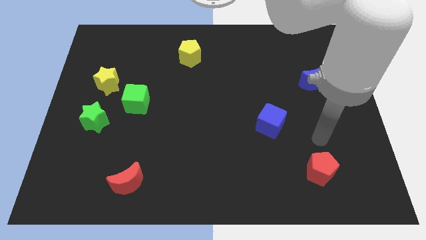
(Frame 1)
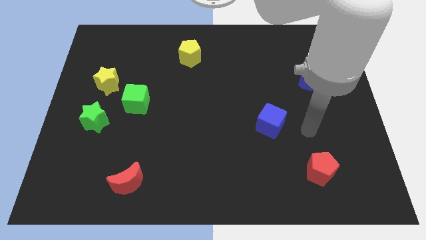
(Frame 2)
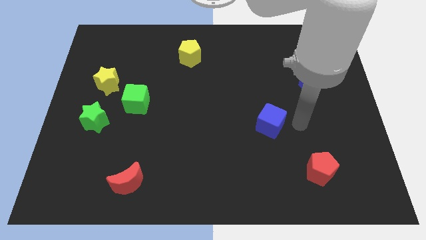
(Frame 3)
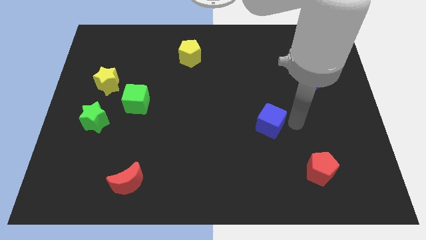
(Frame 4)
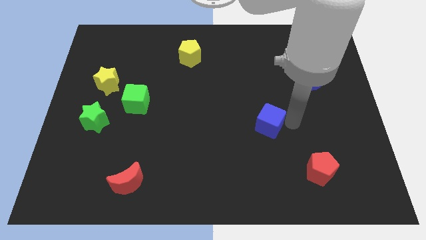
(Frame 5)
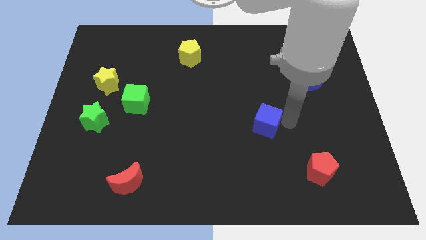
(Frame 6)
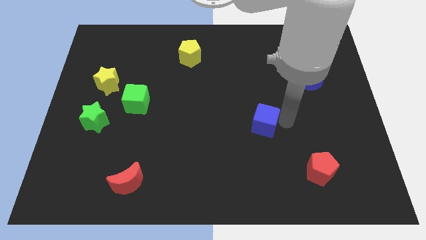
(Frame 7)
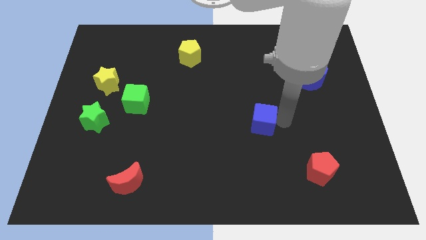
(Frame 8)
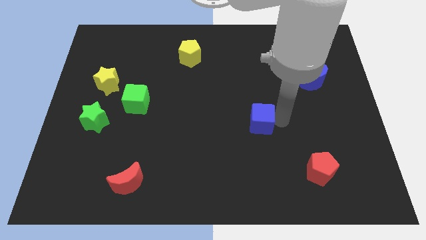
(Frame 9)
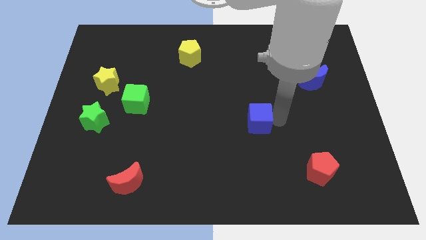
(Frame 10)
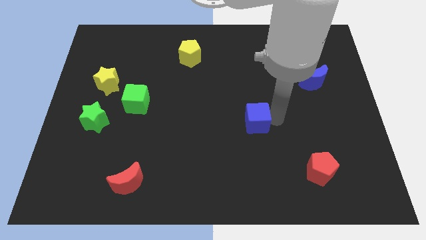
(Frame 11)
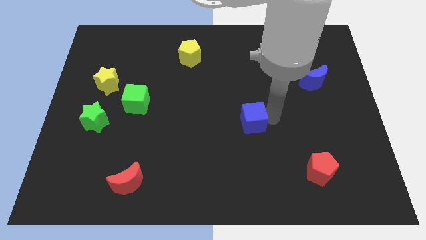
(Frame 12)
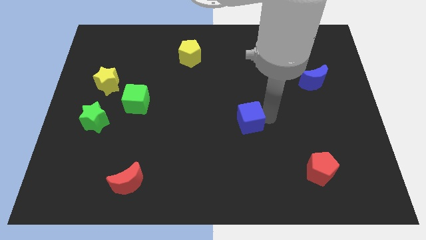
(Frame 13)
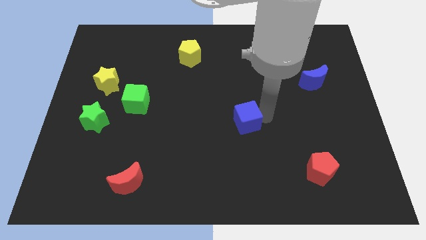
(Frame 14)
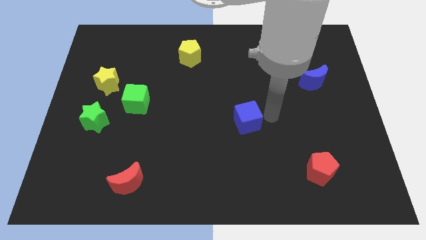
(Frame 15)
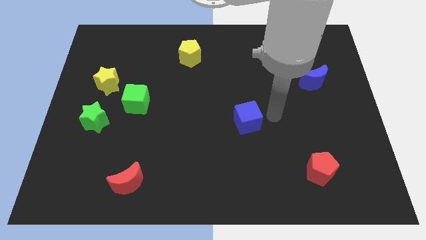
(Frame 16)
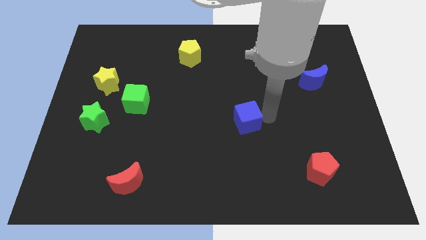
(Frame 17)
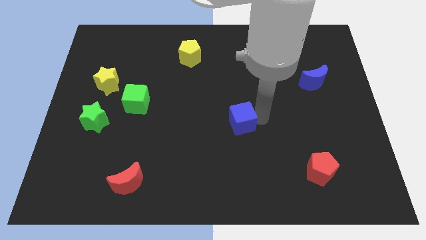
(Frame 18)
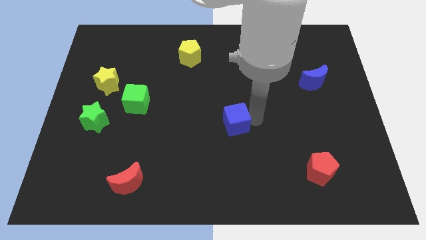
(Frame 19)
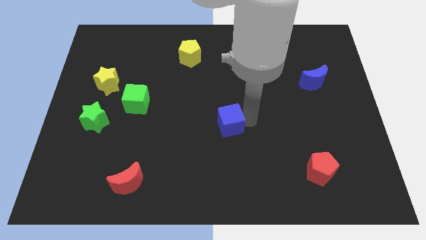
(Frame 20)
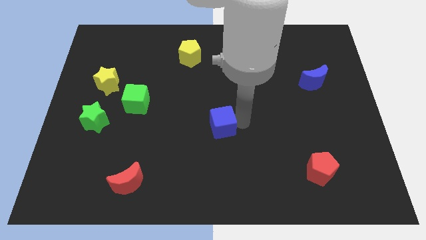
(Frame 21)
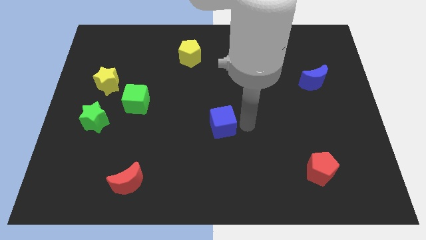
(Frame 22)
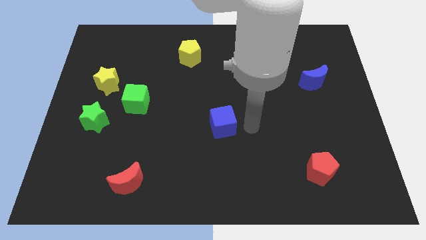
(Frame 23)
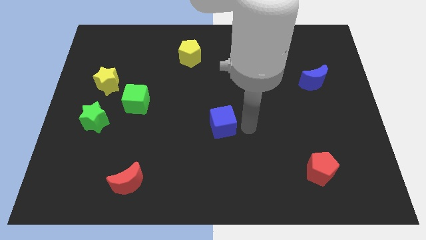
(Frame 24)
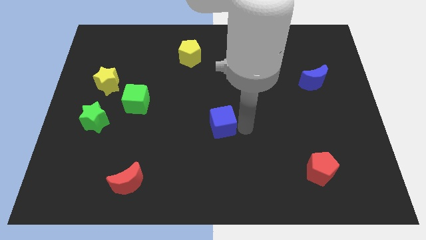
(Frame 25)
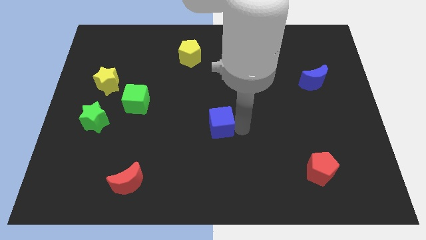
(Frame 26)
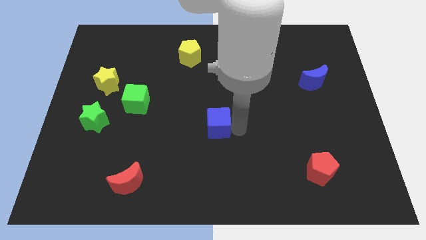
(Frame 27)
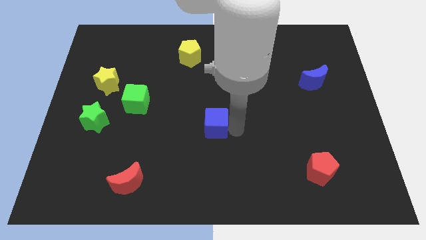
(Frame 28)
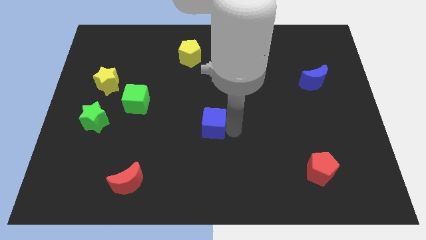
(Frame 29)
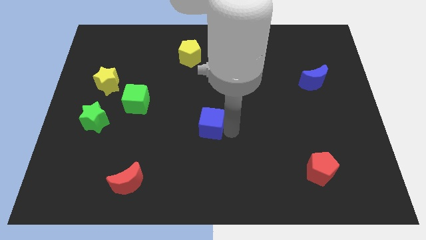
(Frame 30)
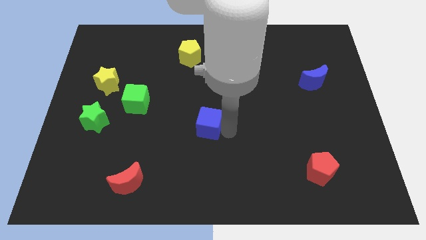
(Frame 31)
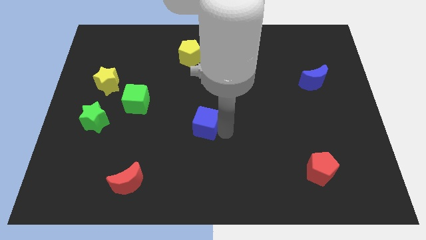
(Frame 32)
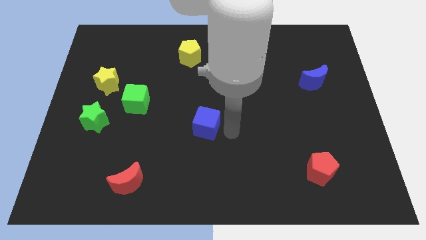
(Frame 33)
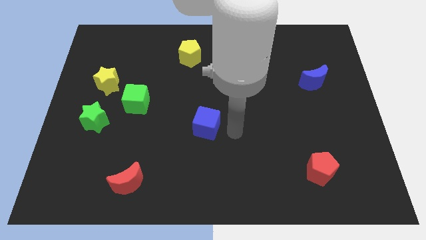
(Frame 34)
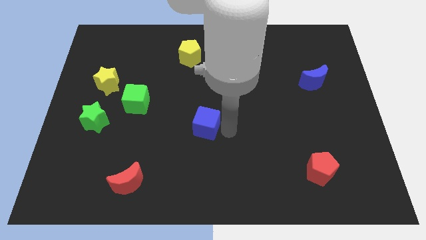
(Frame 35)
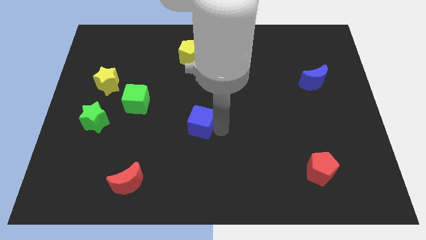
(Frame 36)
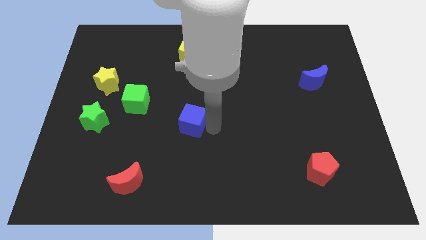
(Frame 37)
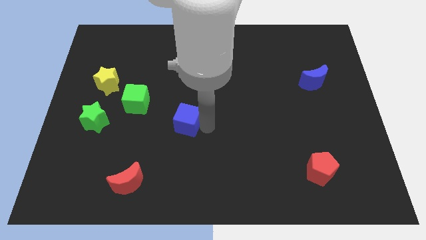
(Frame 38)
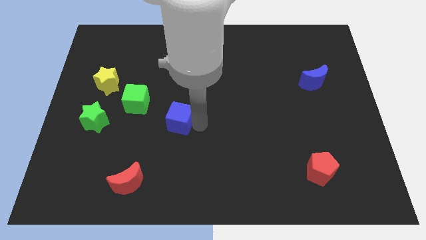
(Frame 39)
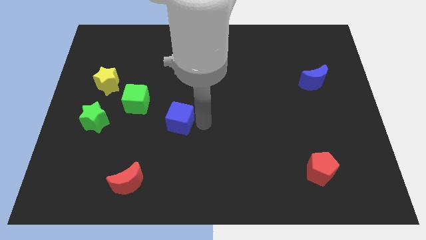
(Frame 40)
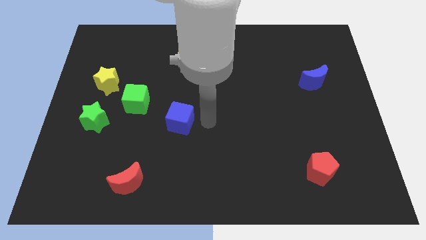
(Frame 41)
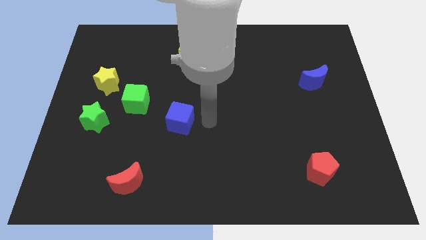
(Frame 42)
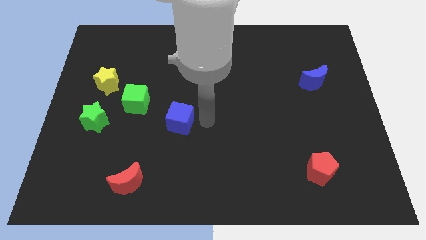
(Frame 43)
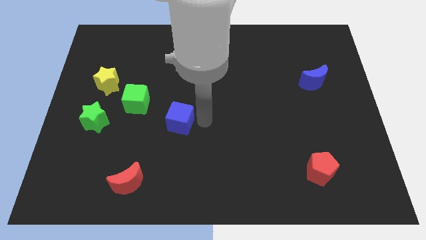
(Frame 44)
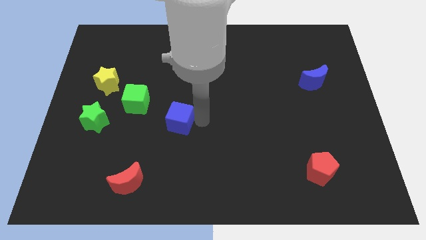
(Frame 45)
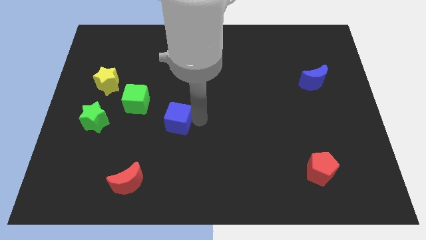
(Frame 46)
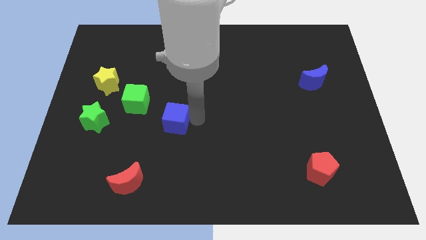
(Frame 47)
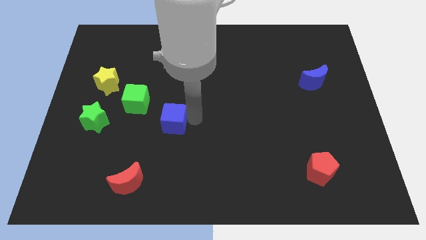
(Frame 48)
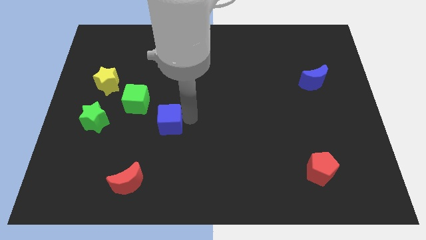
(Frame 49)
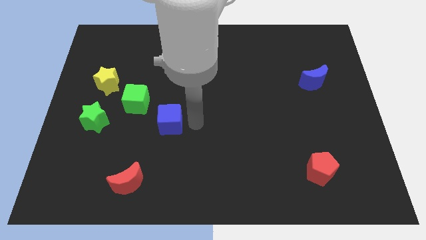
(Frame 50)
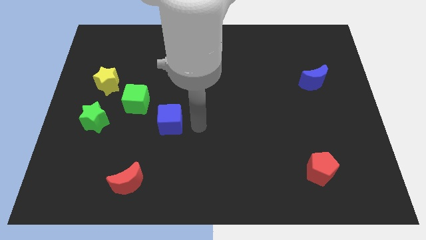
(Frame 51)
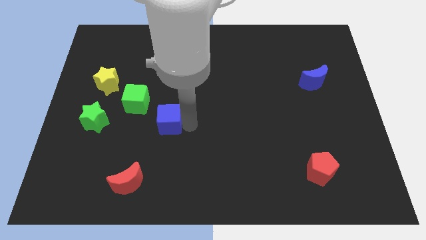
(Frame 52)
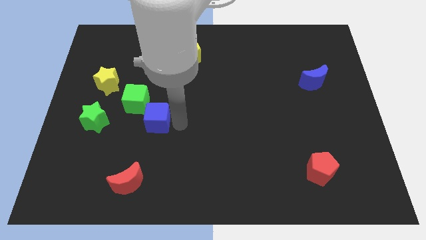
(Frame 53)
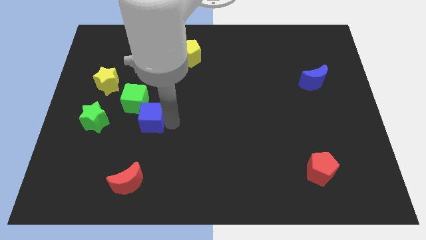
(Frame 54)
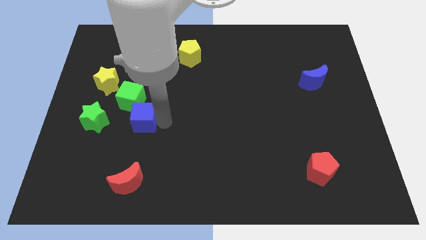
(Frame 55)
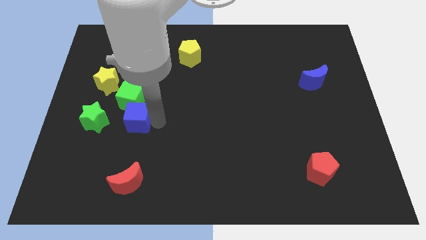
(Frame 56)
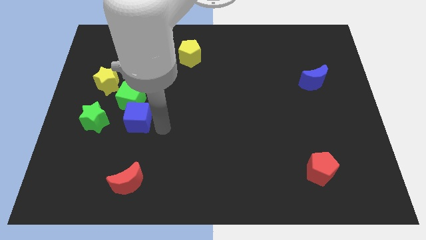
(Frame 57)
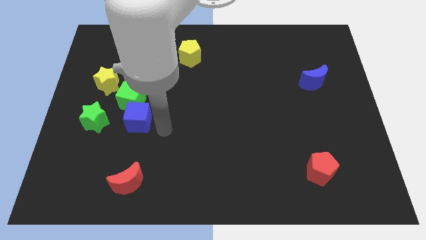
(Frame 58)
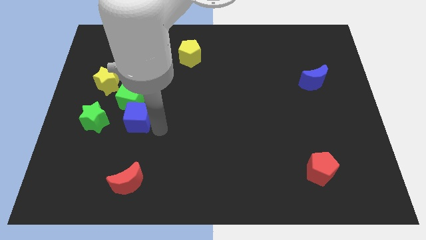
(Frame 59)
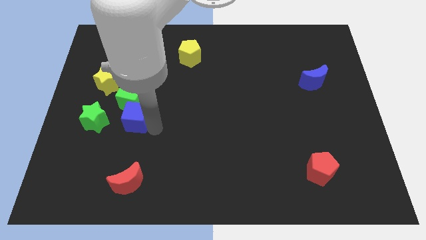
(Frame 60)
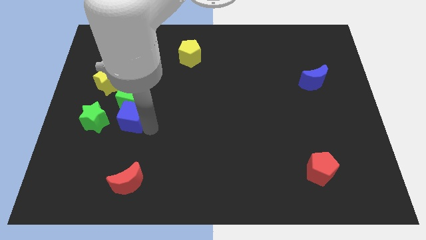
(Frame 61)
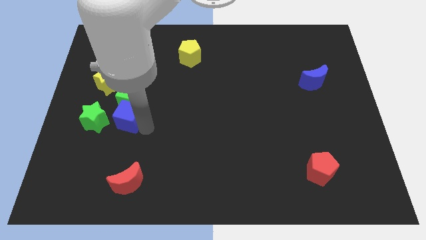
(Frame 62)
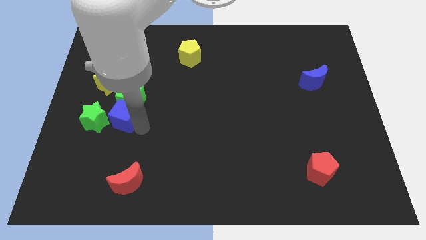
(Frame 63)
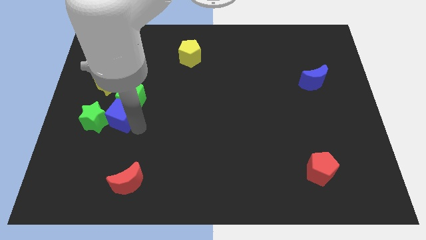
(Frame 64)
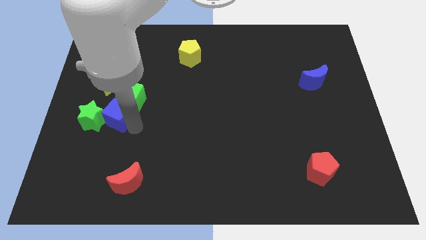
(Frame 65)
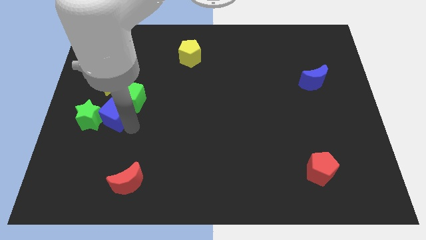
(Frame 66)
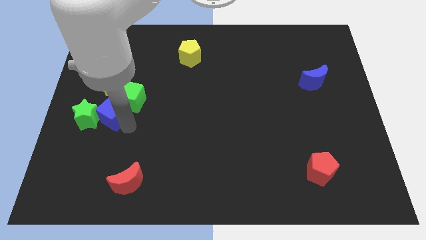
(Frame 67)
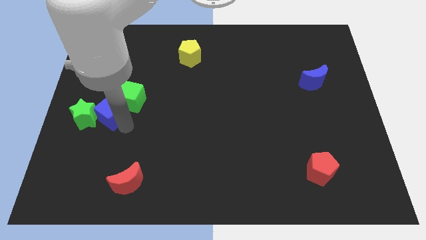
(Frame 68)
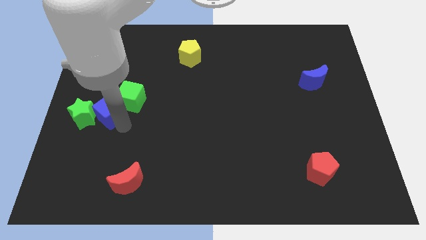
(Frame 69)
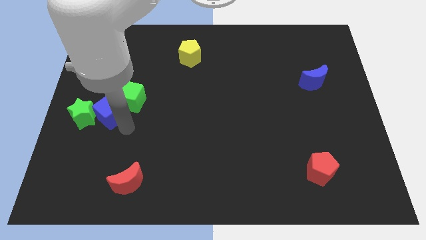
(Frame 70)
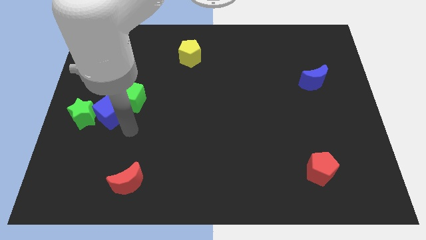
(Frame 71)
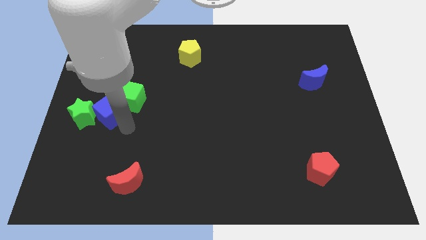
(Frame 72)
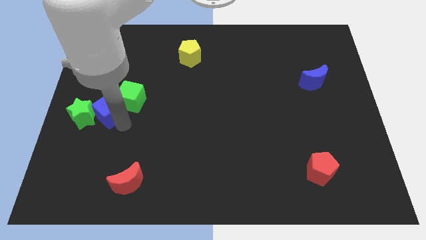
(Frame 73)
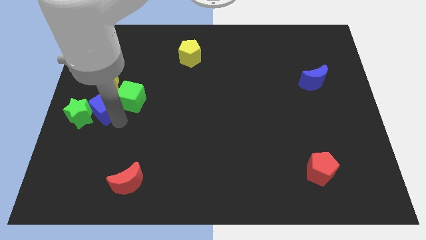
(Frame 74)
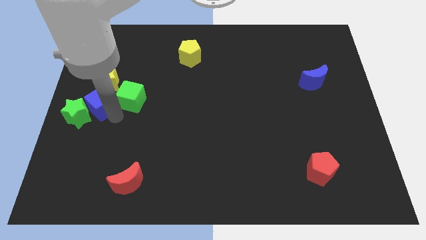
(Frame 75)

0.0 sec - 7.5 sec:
put the blue cube to the left side of the board
